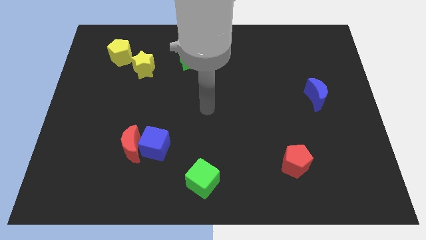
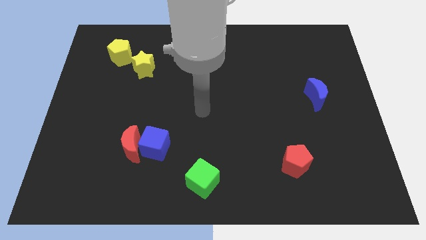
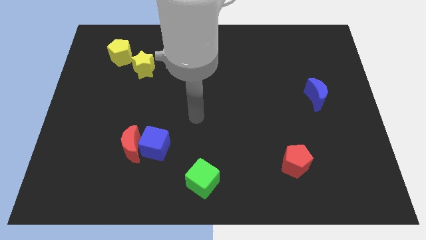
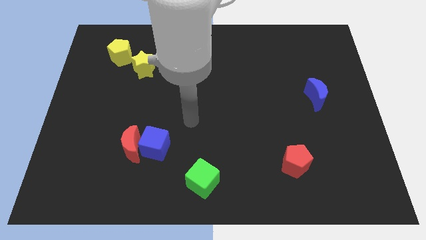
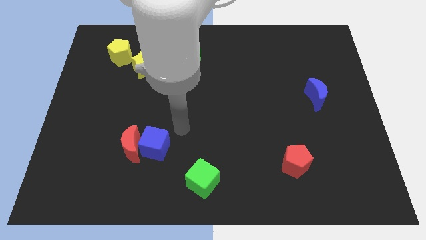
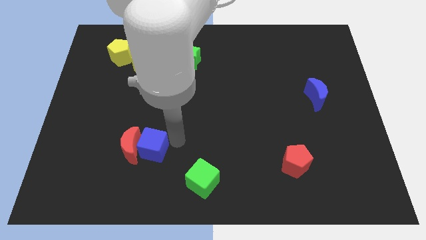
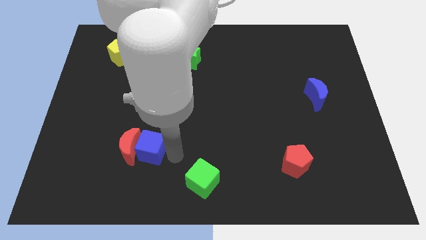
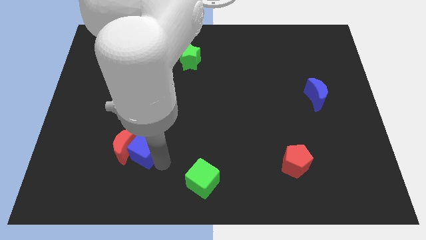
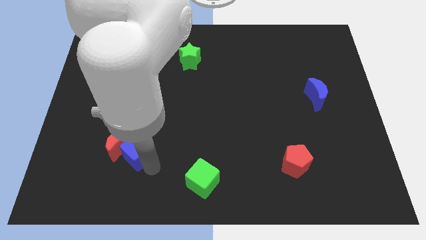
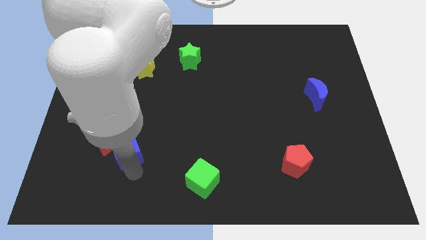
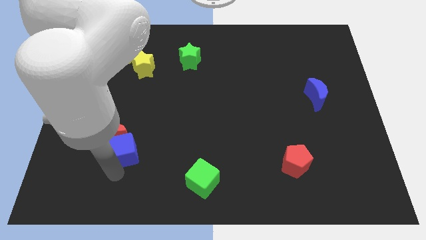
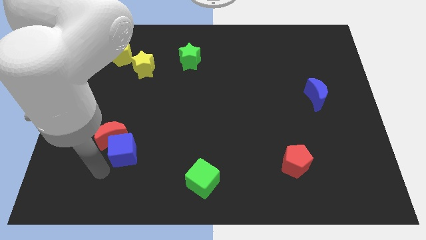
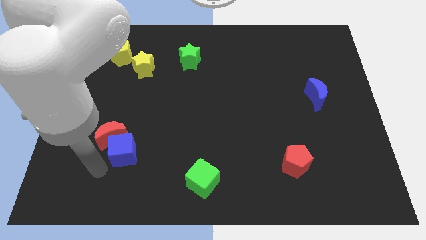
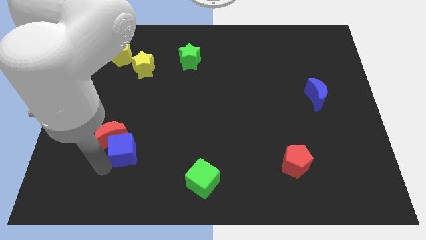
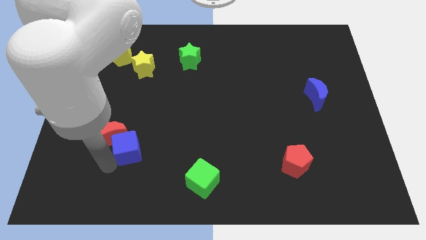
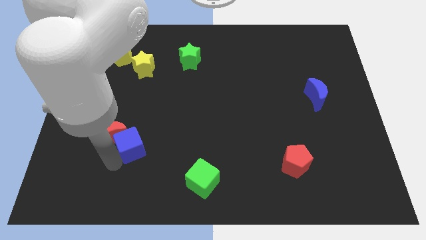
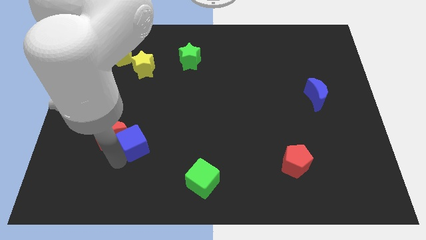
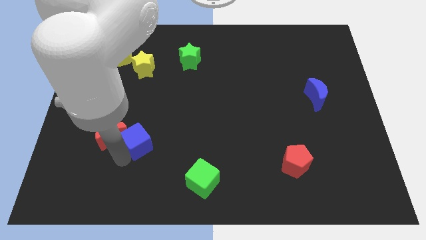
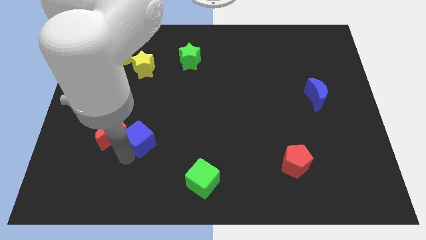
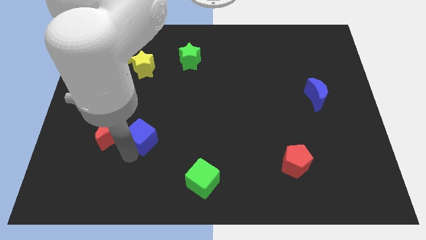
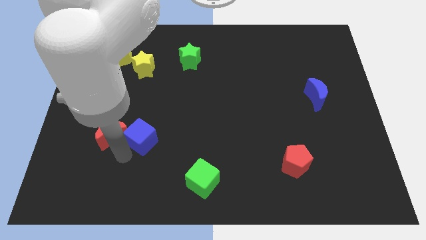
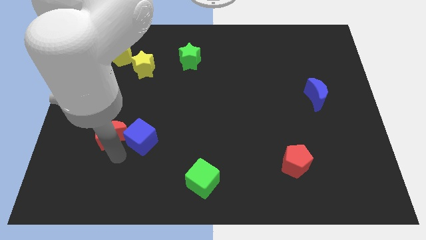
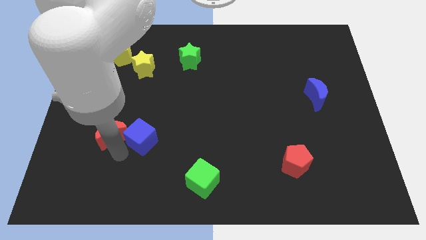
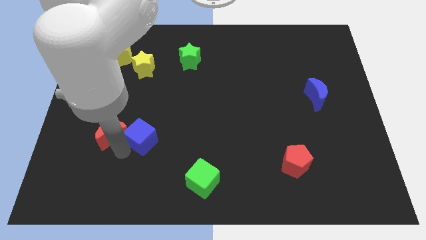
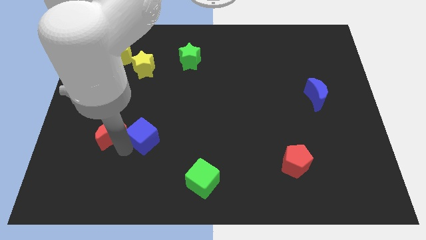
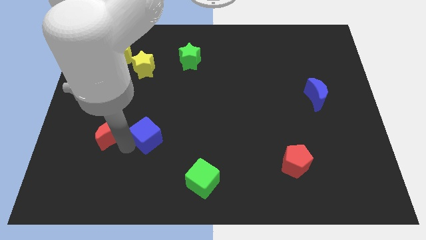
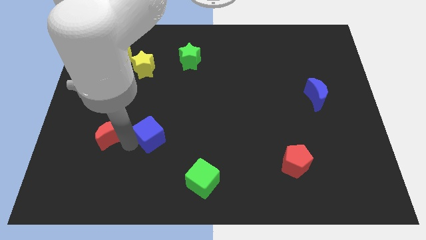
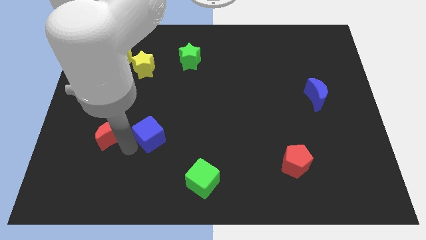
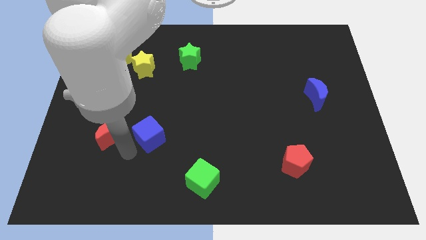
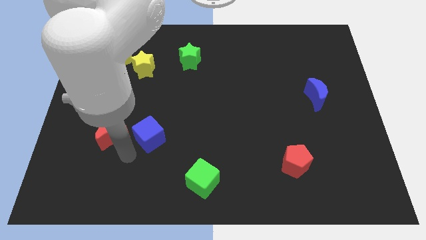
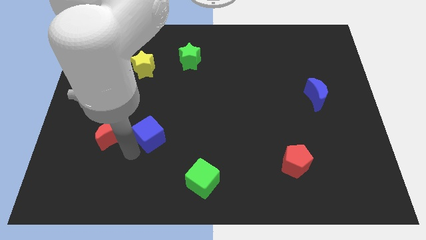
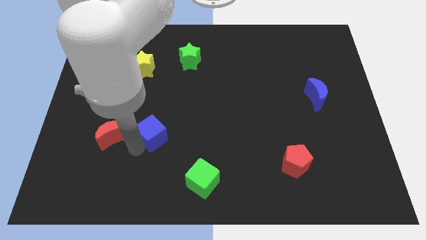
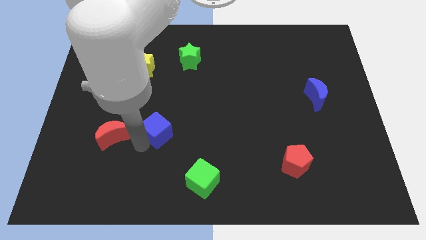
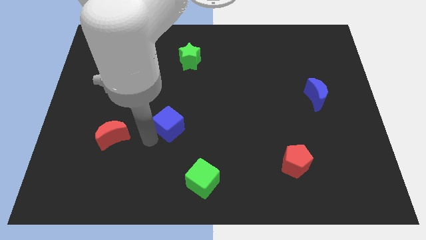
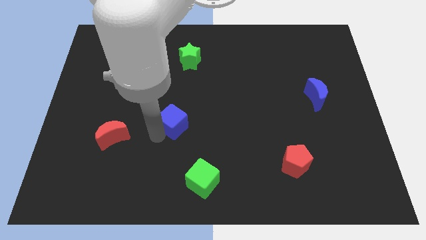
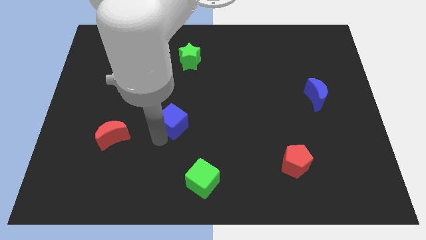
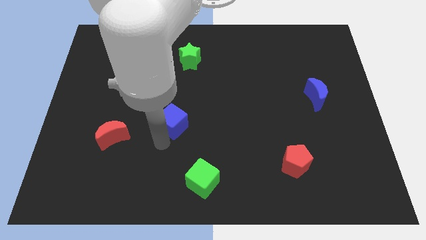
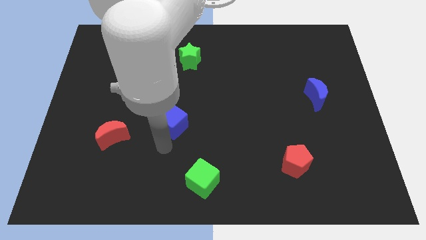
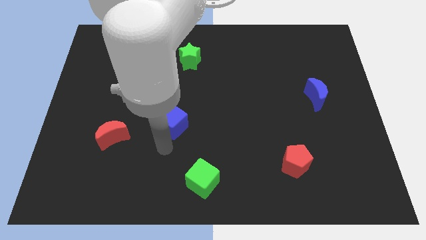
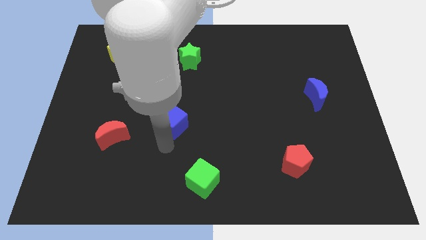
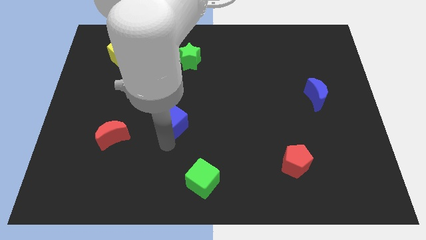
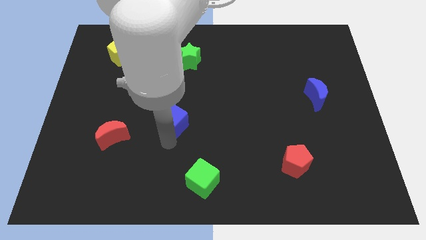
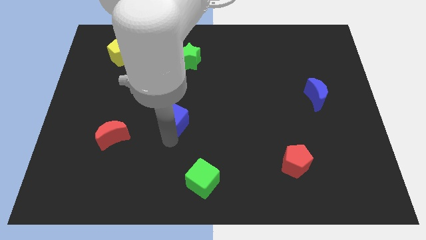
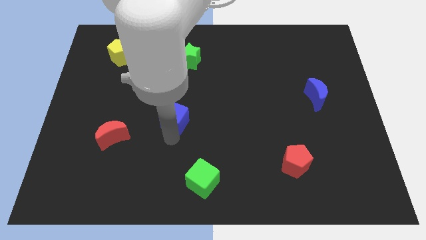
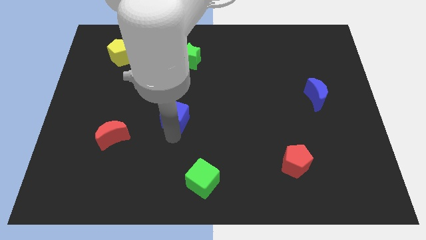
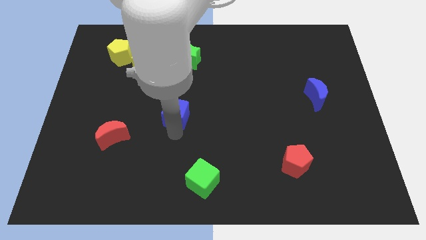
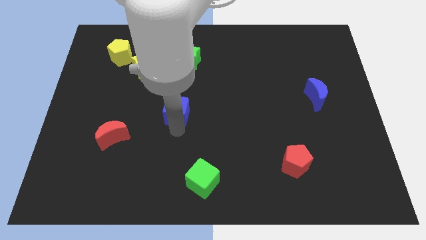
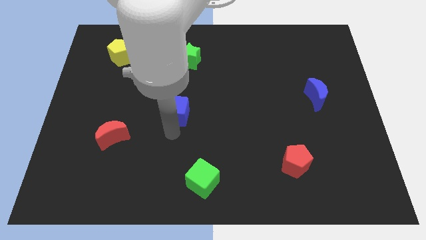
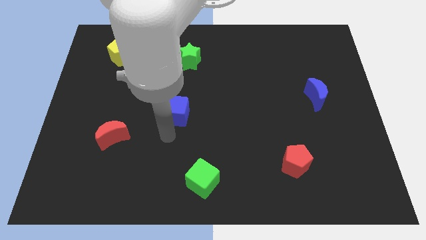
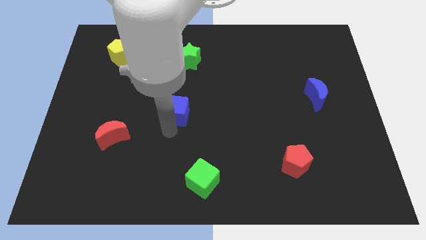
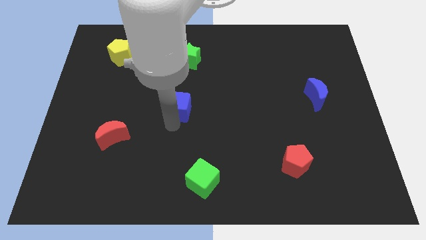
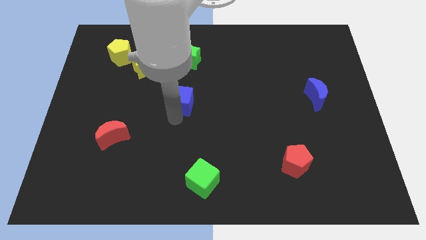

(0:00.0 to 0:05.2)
put the blue cube to the bottom of the green star

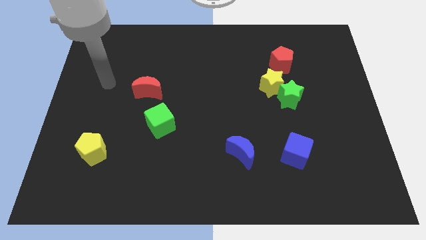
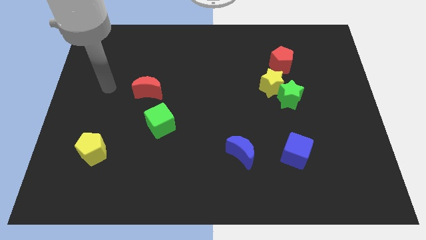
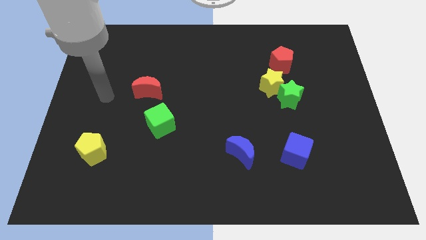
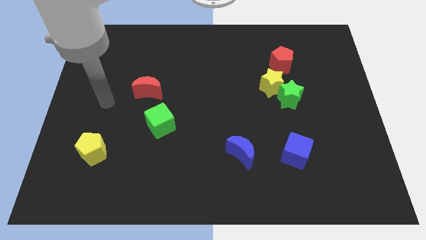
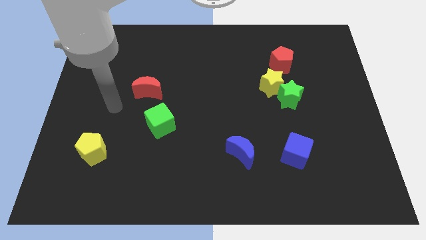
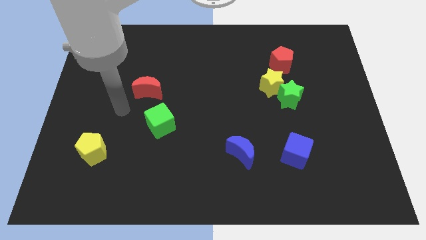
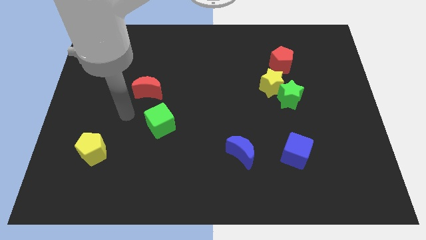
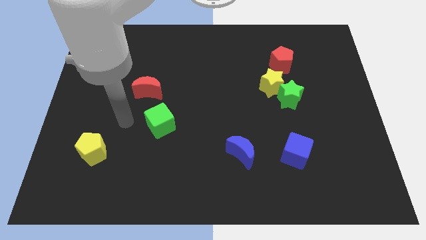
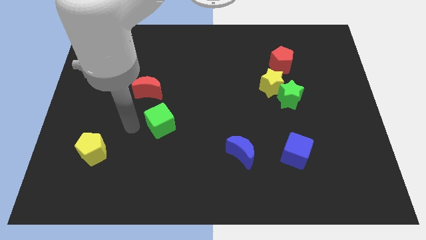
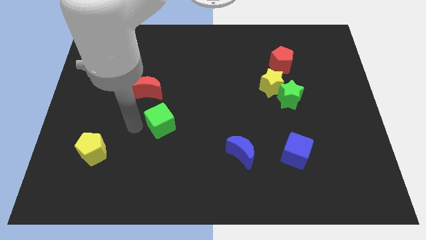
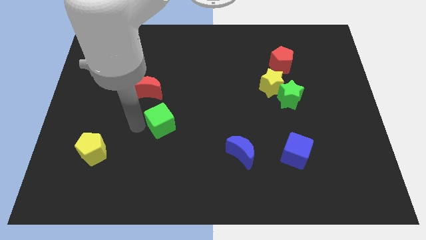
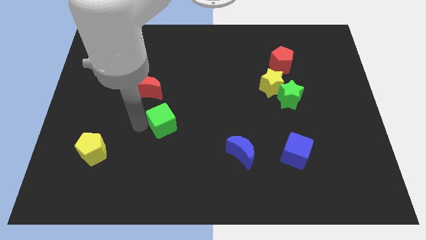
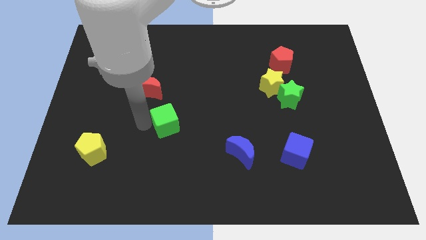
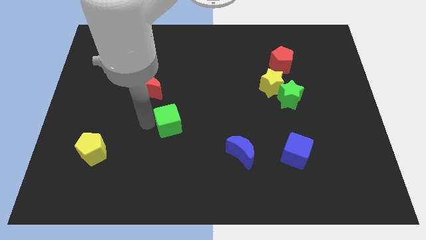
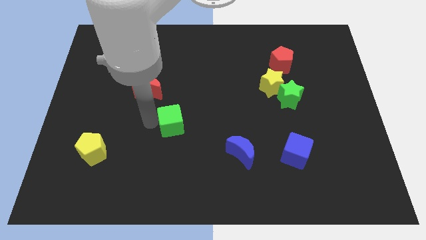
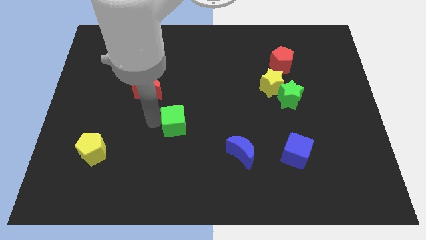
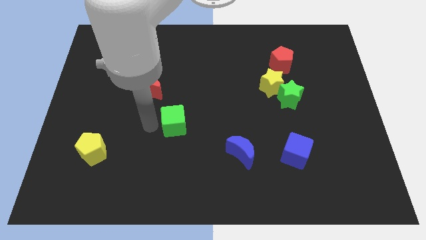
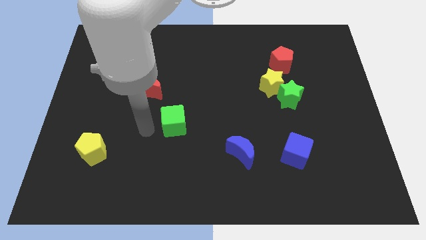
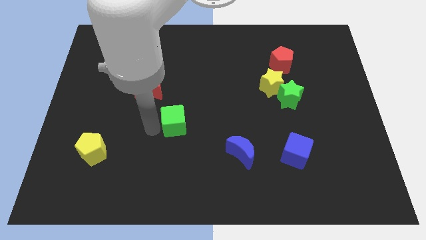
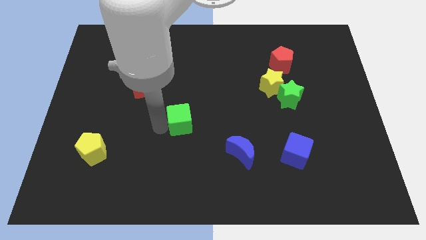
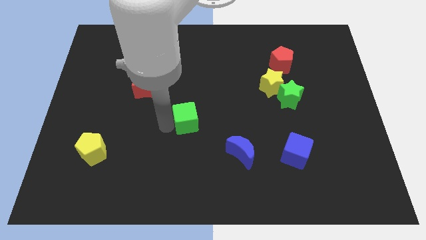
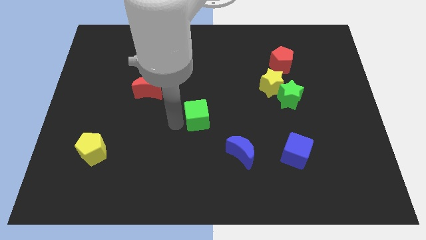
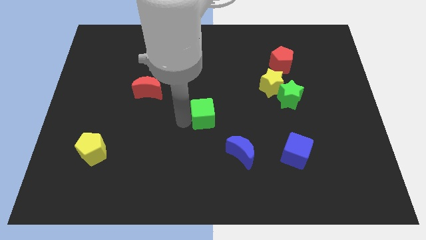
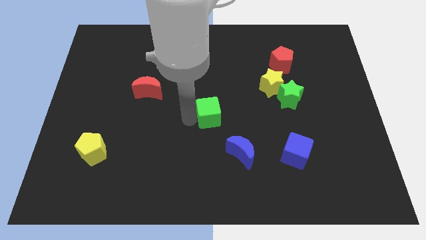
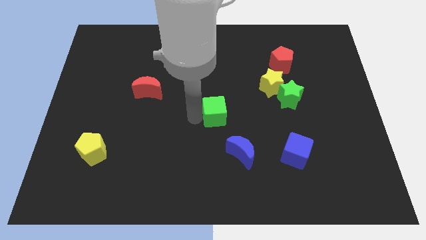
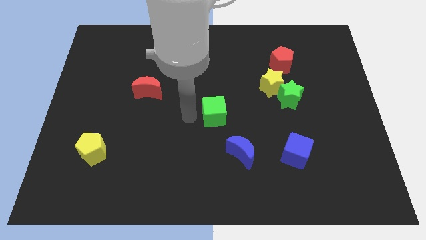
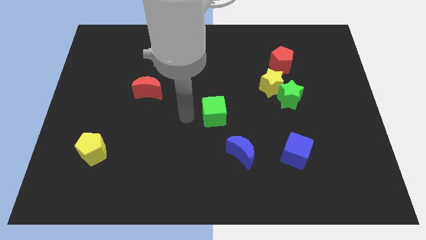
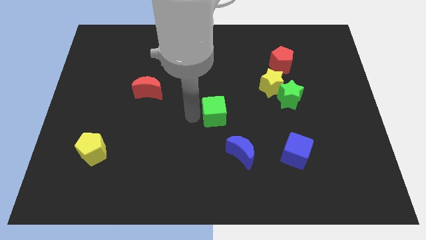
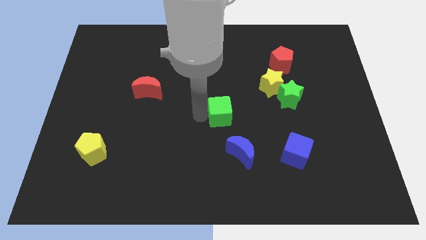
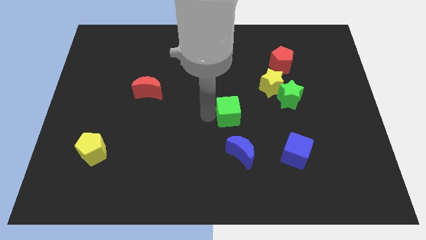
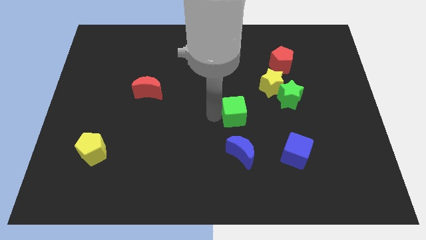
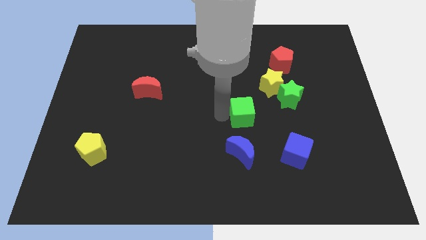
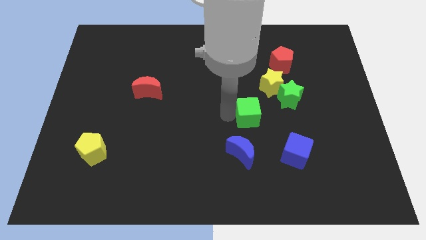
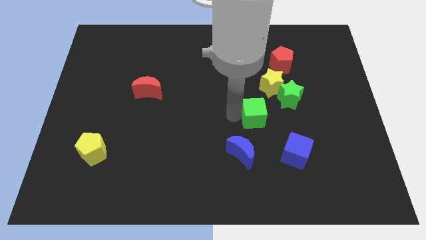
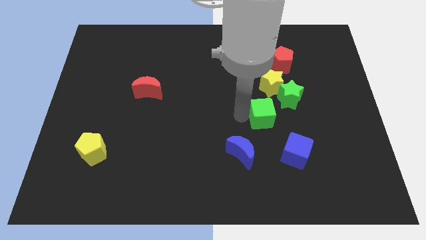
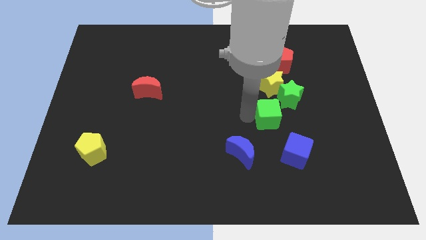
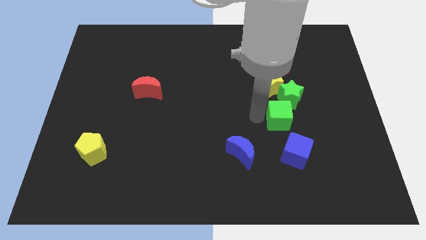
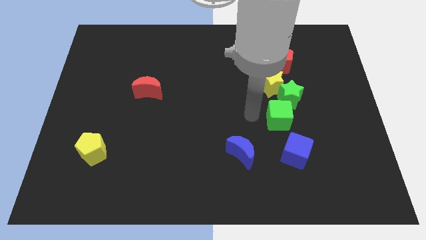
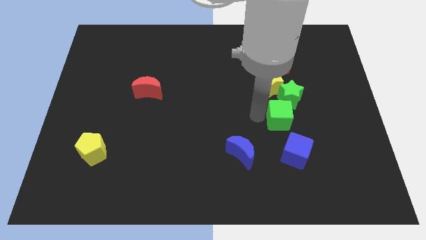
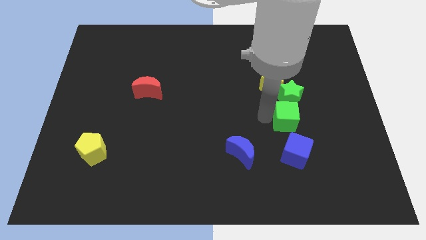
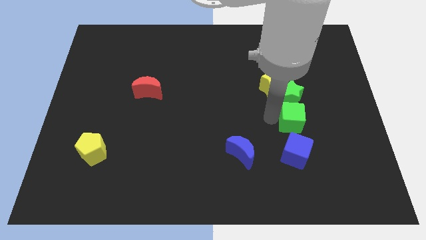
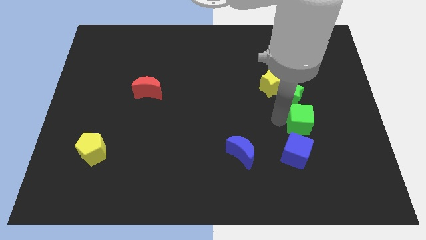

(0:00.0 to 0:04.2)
slide the green cube to the bottom right side of the yellow star
